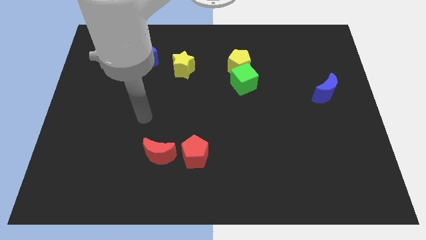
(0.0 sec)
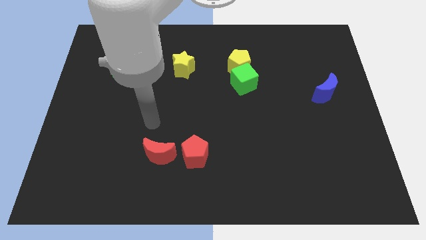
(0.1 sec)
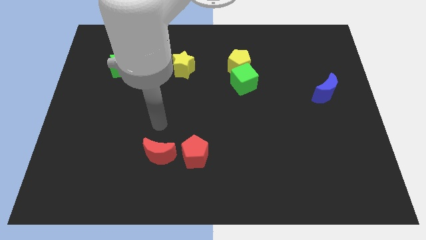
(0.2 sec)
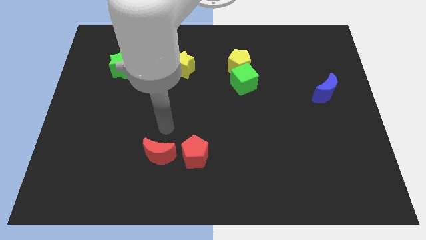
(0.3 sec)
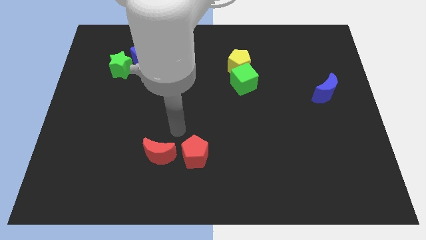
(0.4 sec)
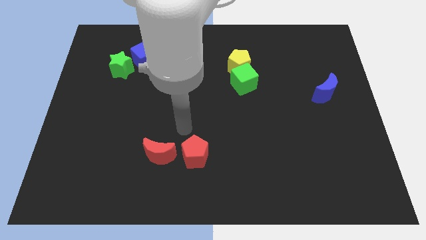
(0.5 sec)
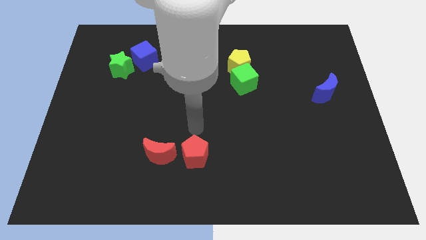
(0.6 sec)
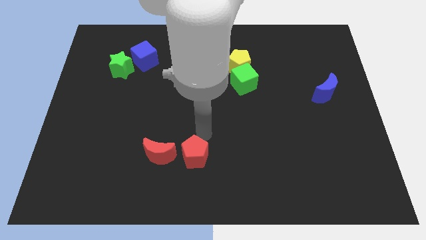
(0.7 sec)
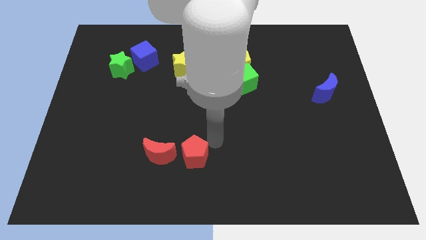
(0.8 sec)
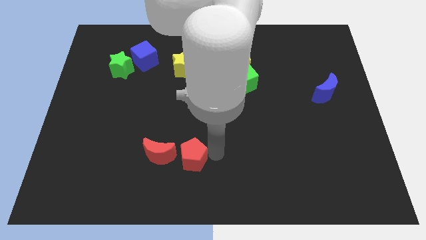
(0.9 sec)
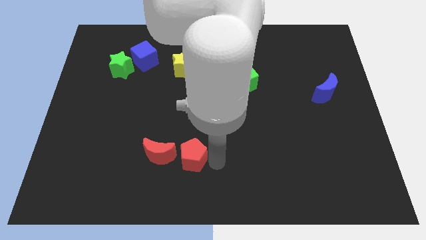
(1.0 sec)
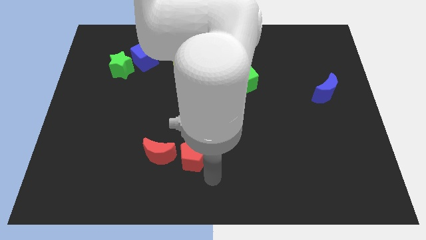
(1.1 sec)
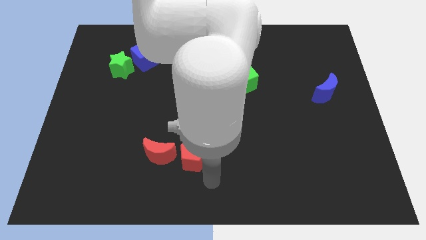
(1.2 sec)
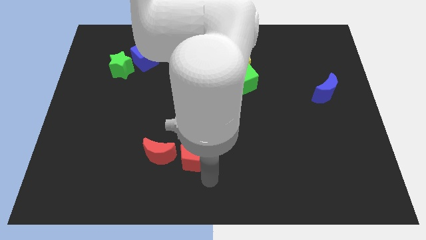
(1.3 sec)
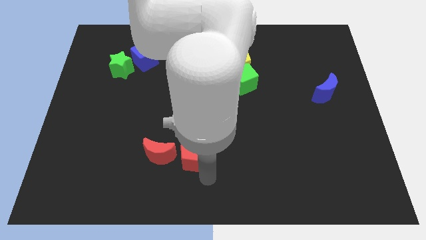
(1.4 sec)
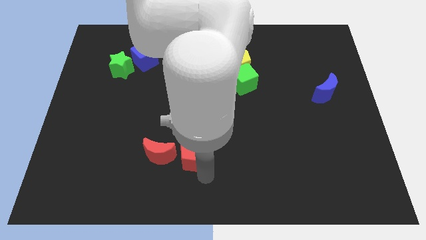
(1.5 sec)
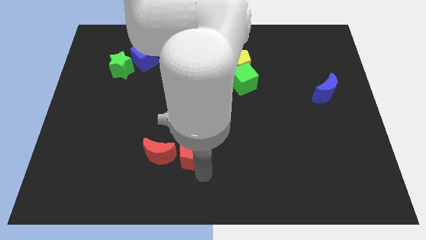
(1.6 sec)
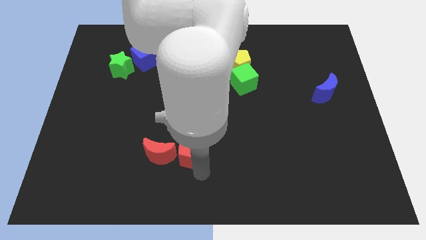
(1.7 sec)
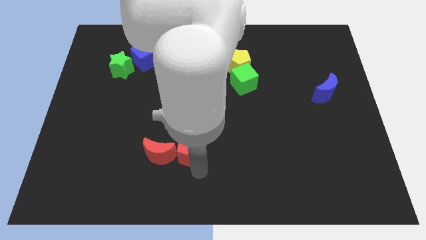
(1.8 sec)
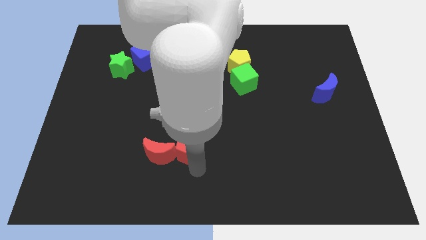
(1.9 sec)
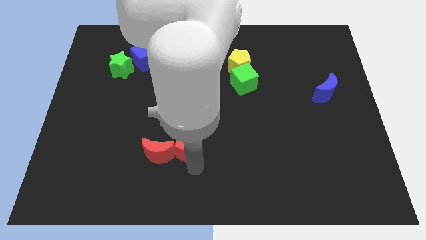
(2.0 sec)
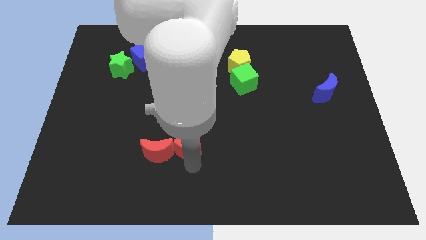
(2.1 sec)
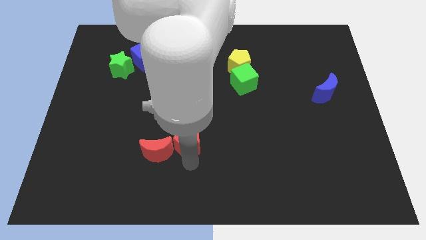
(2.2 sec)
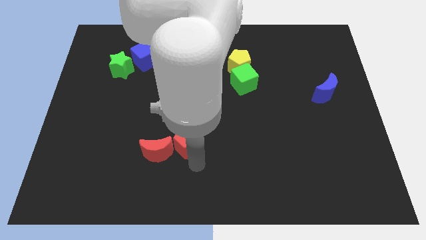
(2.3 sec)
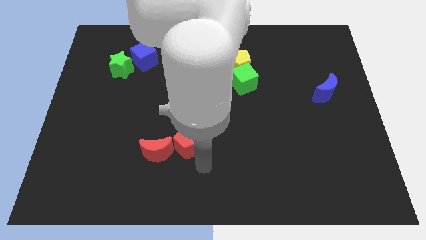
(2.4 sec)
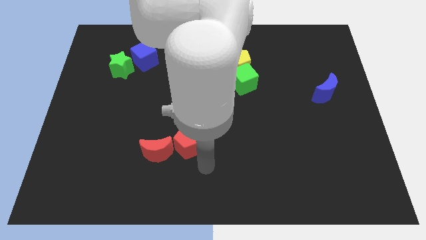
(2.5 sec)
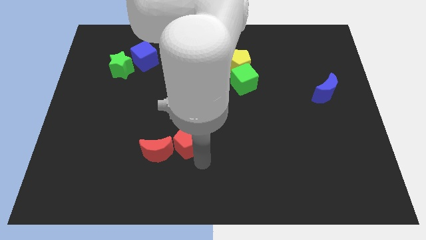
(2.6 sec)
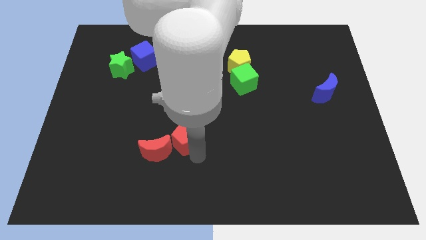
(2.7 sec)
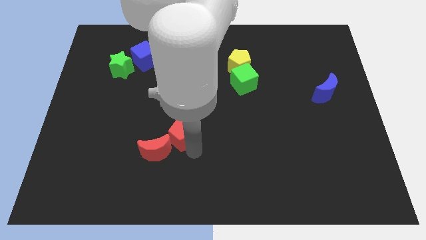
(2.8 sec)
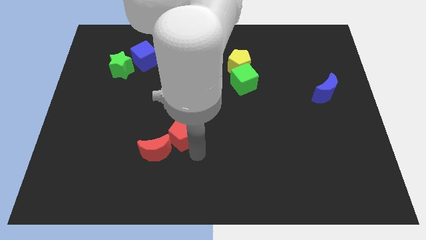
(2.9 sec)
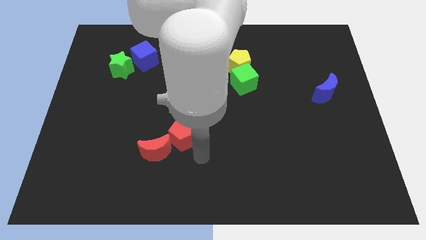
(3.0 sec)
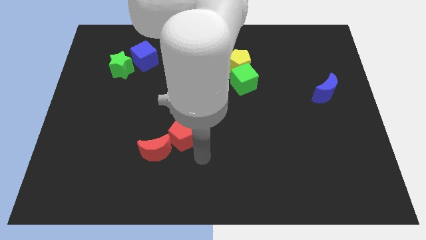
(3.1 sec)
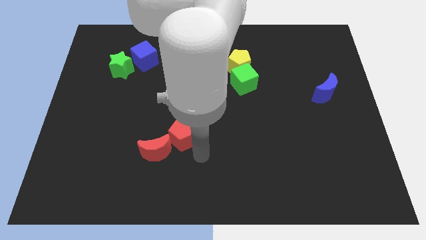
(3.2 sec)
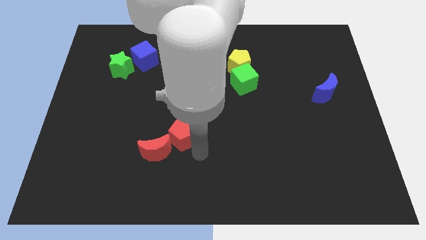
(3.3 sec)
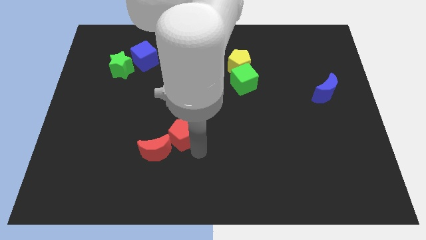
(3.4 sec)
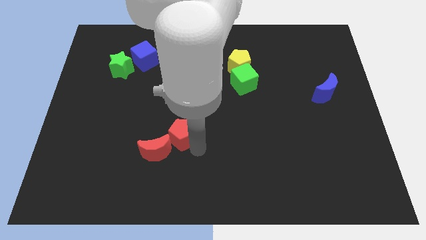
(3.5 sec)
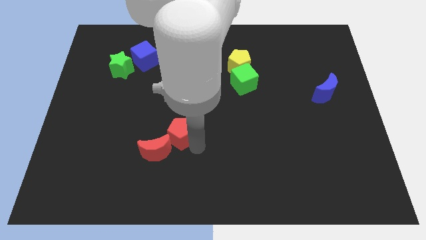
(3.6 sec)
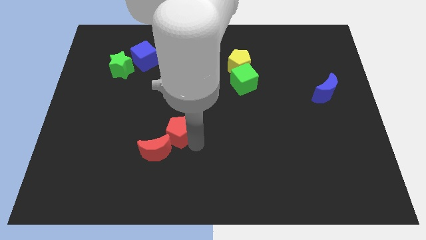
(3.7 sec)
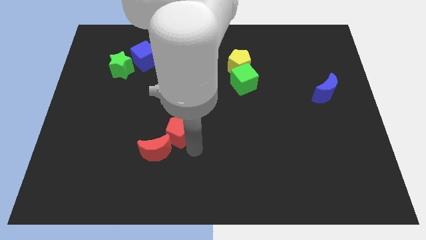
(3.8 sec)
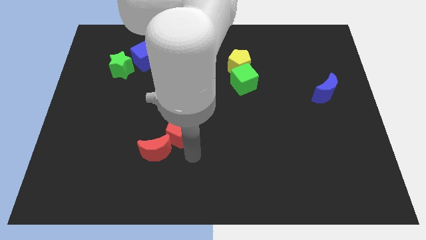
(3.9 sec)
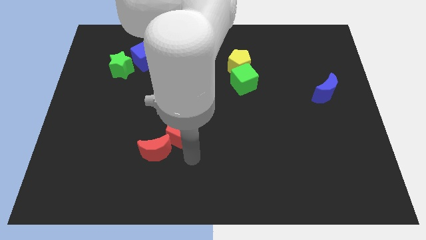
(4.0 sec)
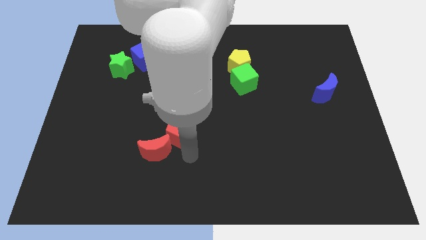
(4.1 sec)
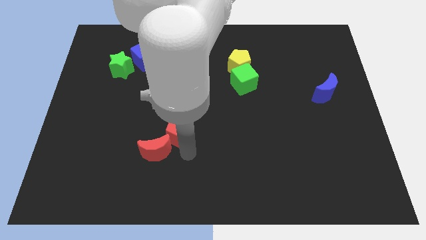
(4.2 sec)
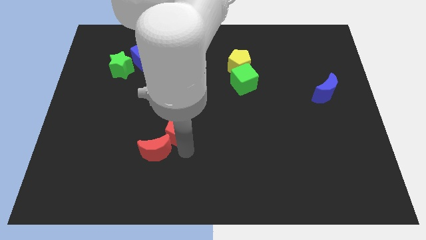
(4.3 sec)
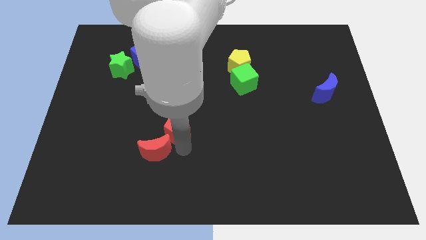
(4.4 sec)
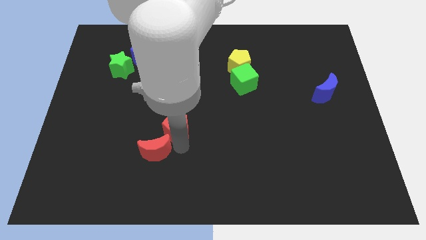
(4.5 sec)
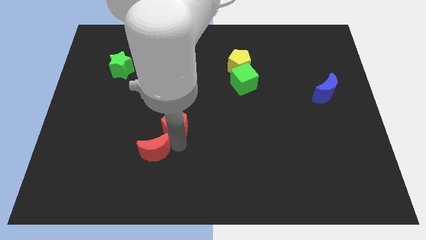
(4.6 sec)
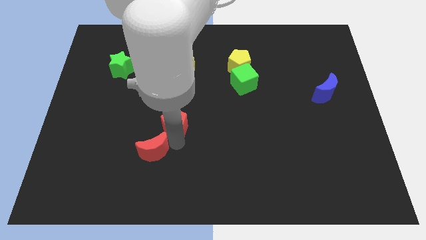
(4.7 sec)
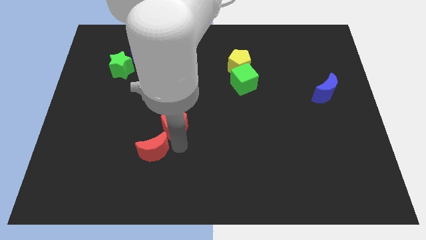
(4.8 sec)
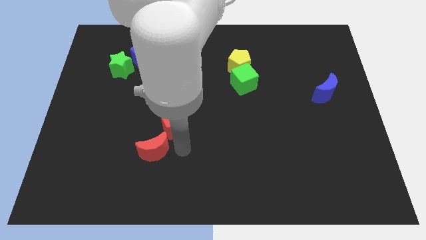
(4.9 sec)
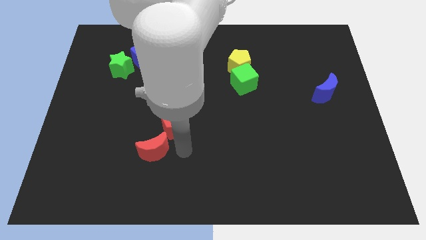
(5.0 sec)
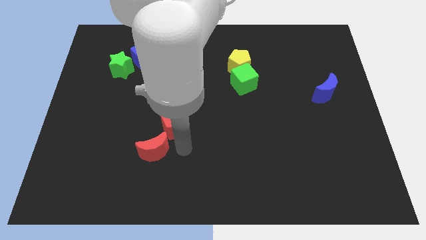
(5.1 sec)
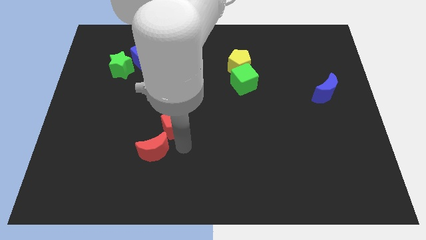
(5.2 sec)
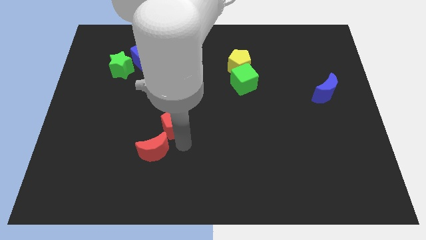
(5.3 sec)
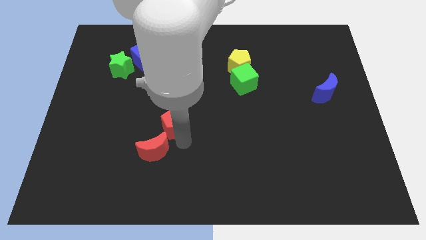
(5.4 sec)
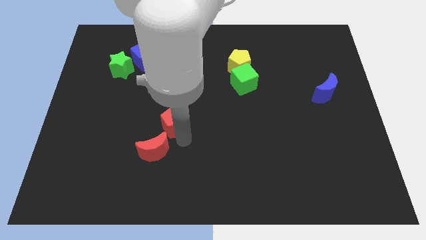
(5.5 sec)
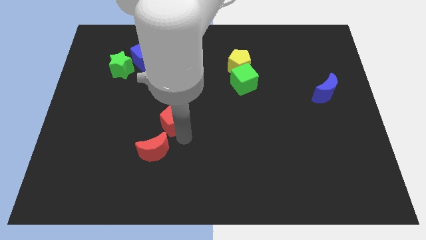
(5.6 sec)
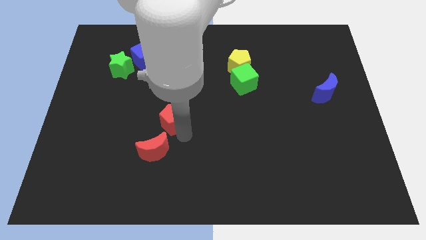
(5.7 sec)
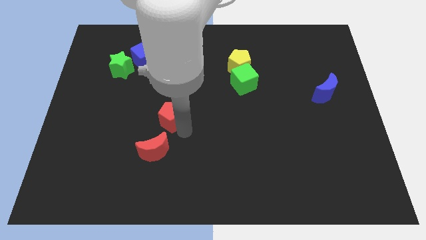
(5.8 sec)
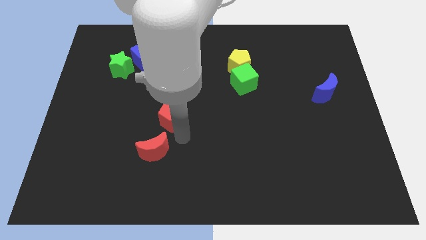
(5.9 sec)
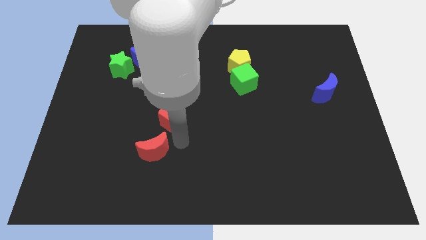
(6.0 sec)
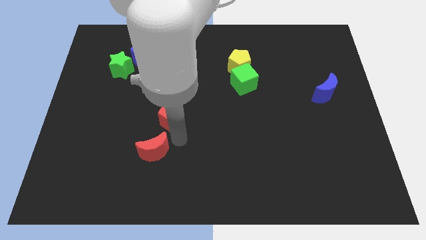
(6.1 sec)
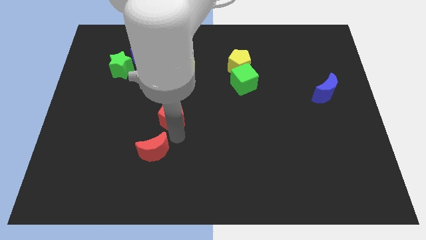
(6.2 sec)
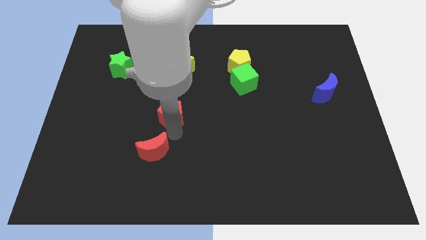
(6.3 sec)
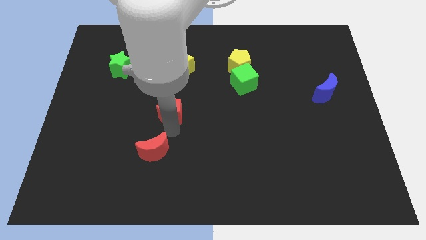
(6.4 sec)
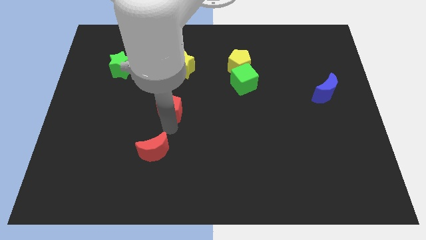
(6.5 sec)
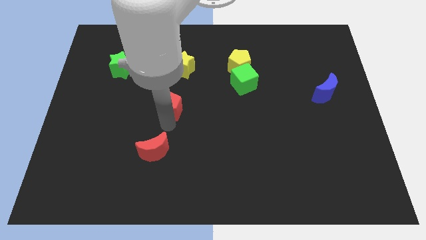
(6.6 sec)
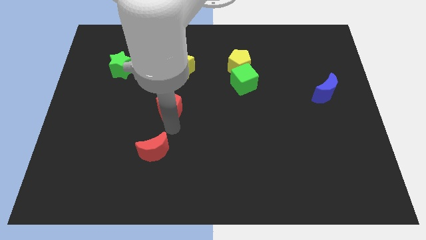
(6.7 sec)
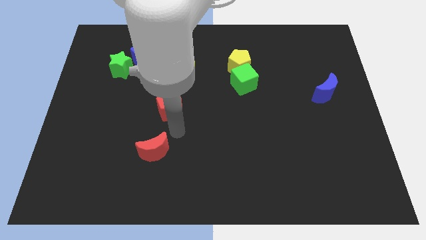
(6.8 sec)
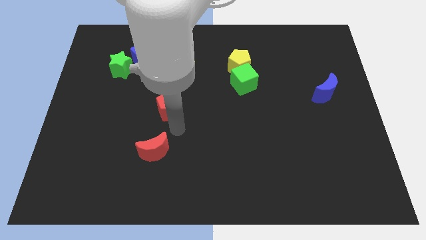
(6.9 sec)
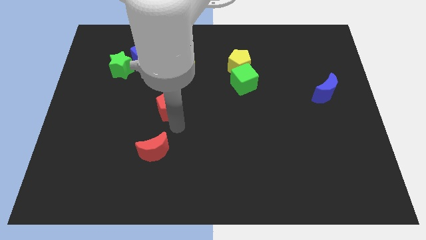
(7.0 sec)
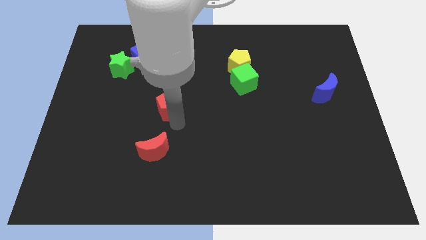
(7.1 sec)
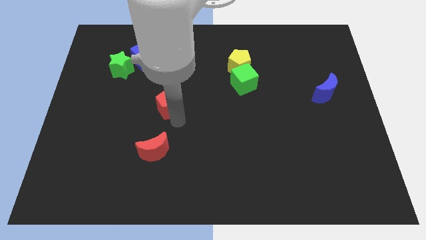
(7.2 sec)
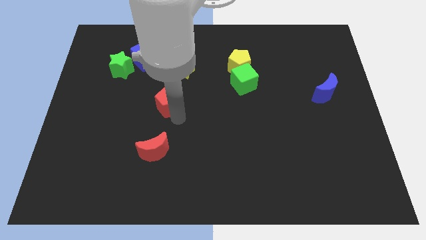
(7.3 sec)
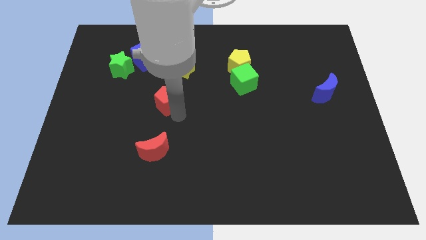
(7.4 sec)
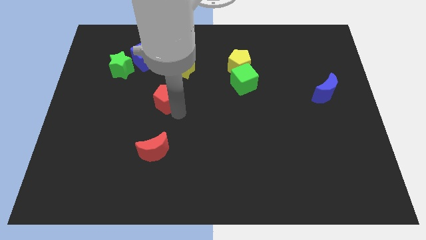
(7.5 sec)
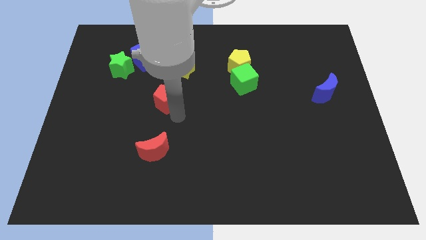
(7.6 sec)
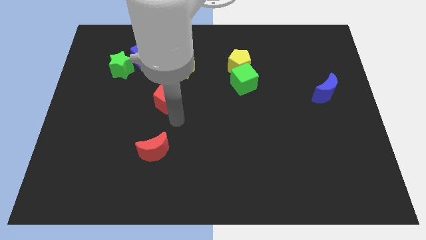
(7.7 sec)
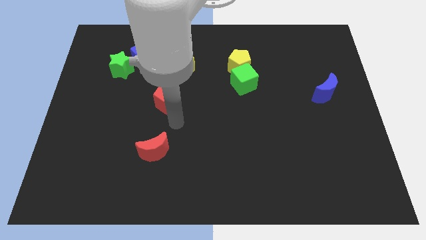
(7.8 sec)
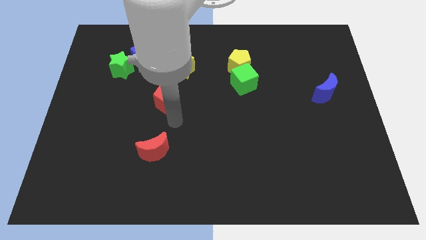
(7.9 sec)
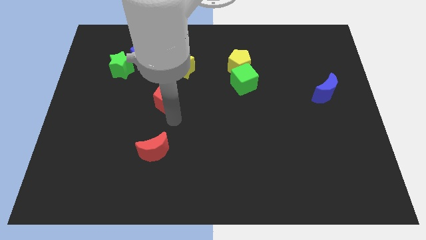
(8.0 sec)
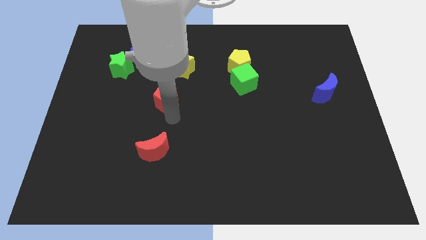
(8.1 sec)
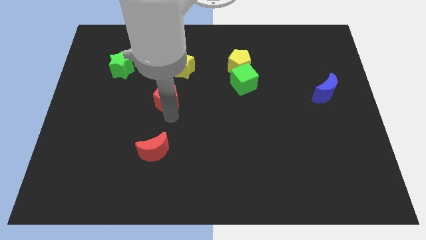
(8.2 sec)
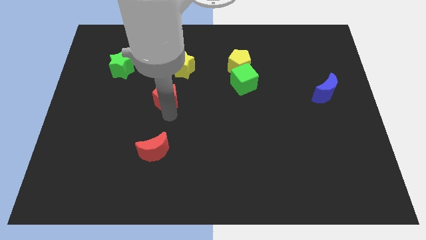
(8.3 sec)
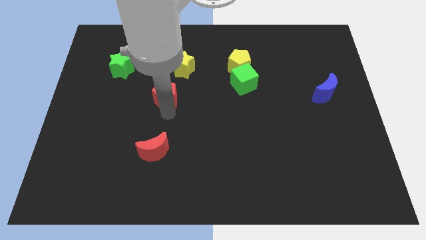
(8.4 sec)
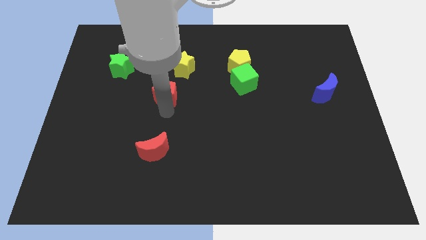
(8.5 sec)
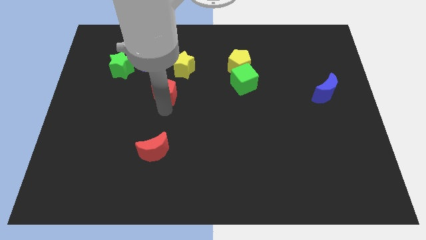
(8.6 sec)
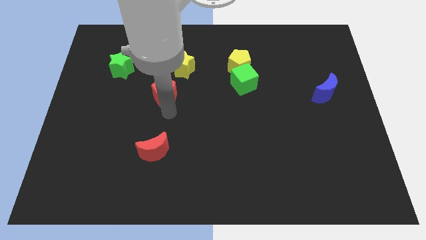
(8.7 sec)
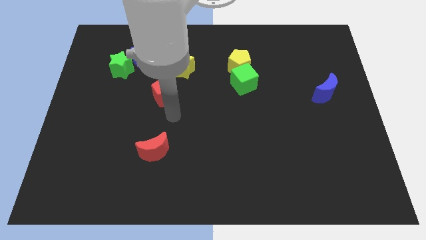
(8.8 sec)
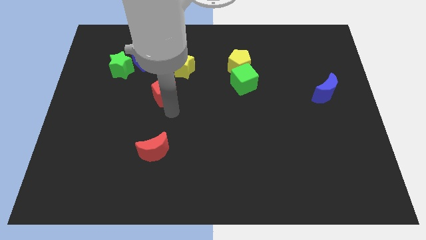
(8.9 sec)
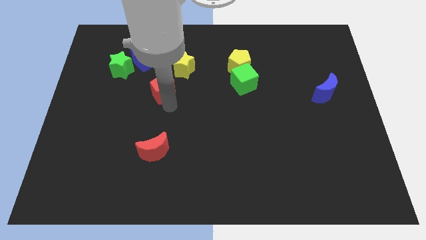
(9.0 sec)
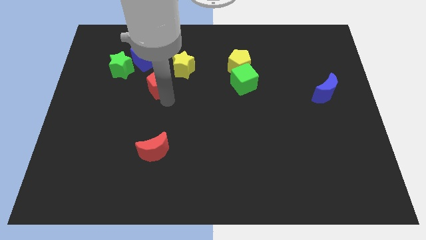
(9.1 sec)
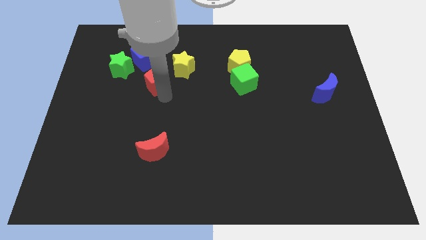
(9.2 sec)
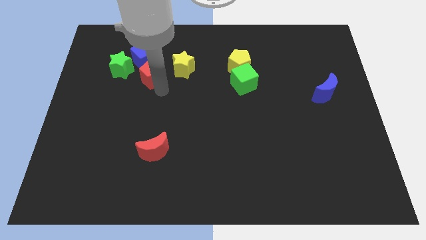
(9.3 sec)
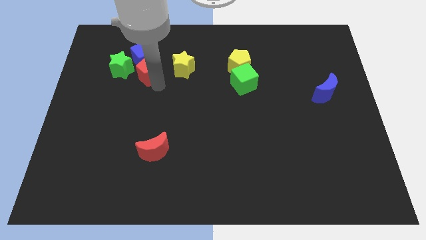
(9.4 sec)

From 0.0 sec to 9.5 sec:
move the red pentagon to the blue cube
